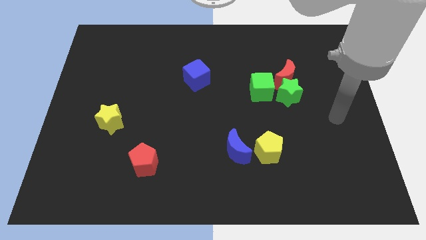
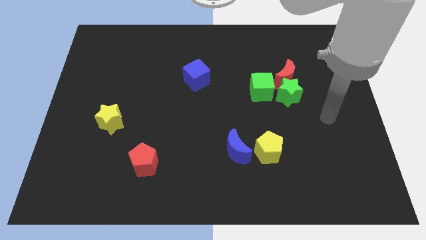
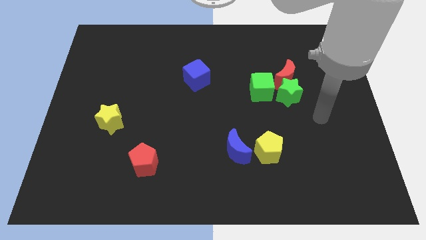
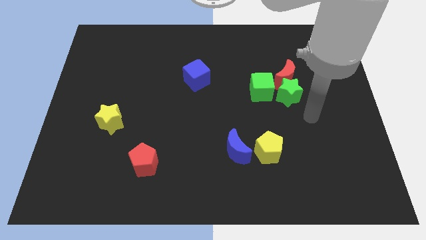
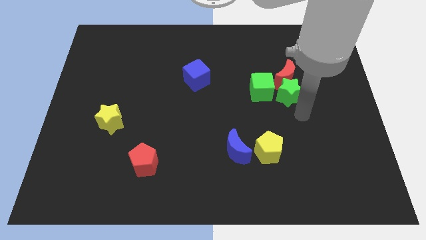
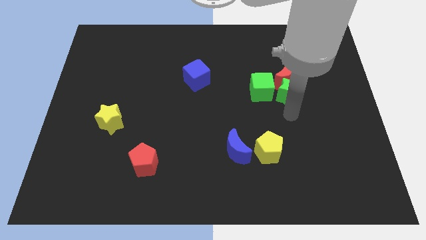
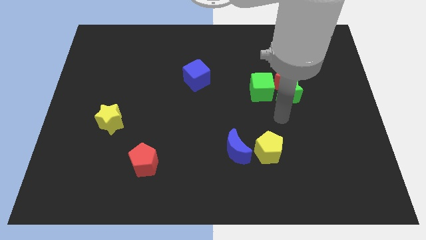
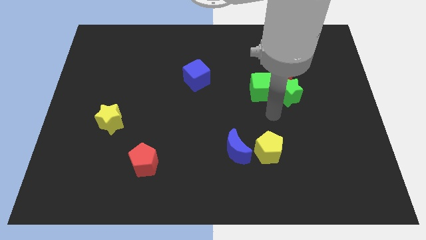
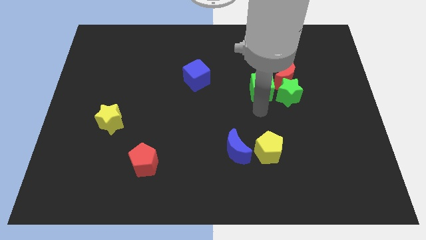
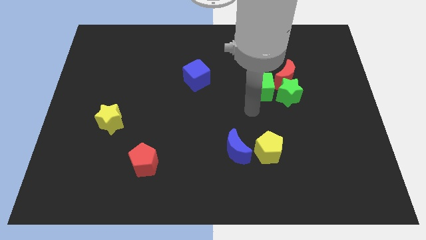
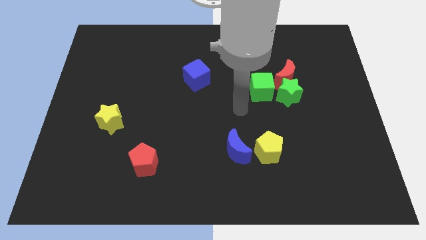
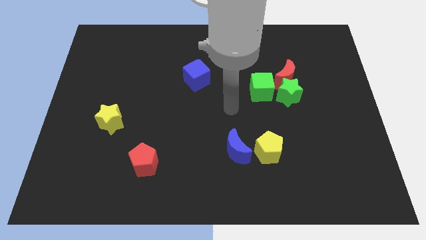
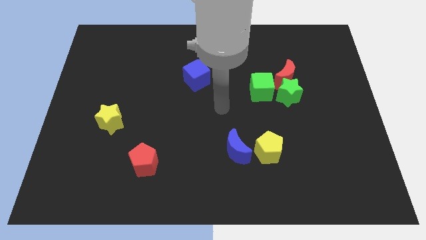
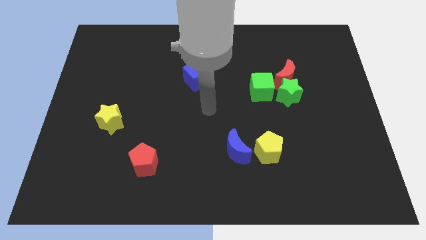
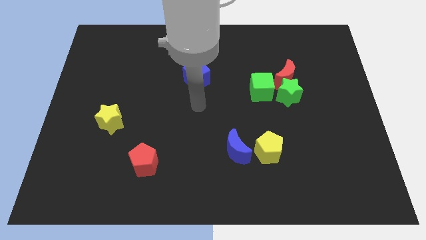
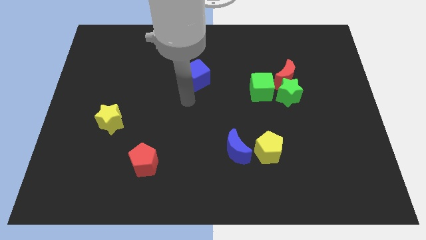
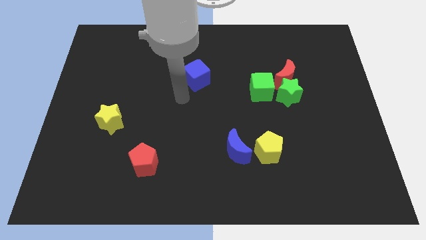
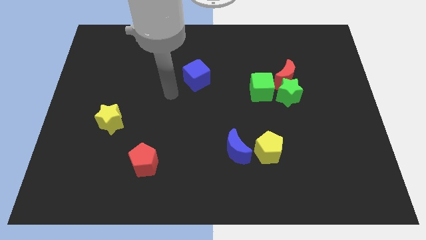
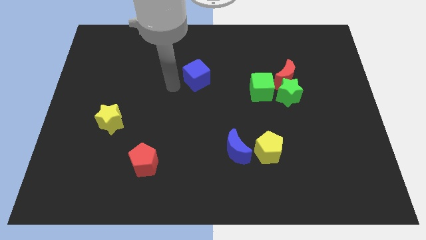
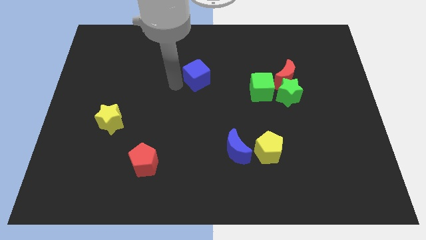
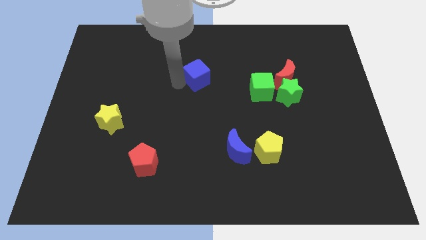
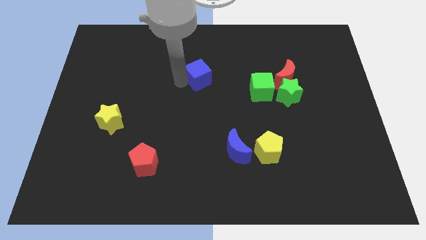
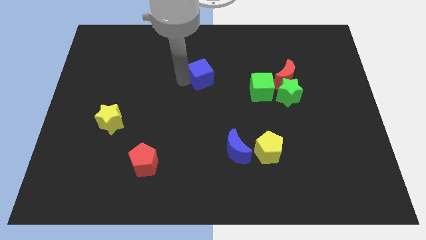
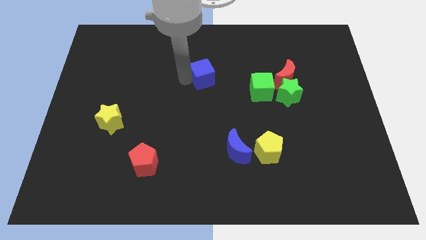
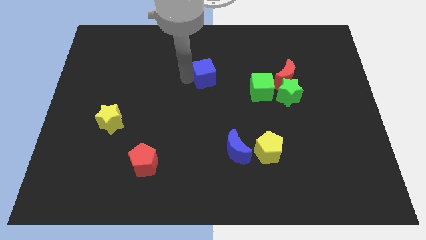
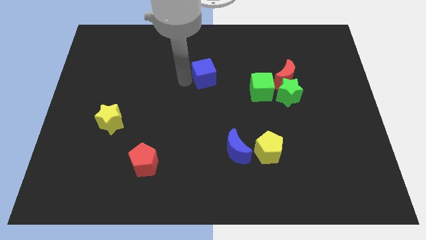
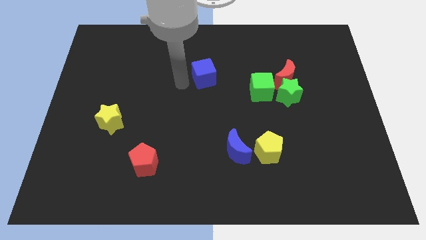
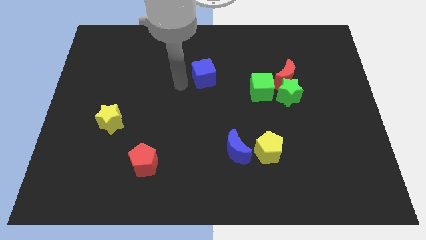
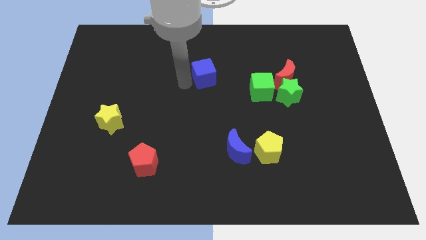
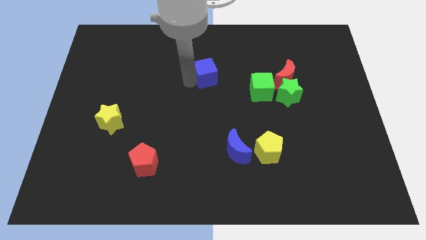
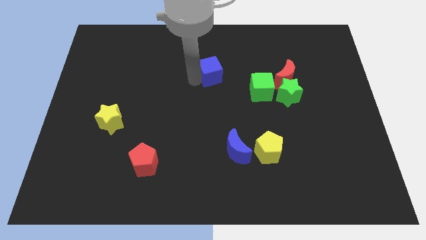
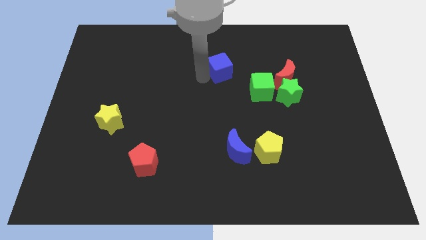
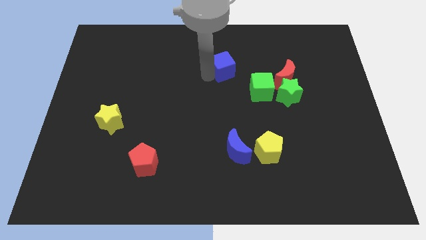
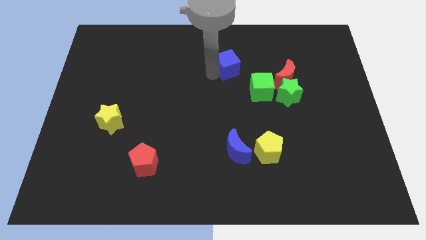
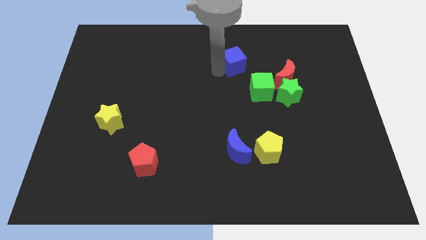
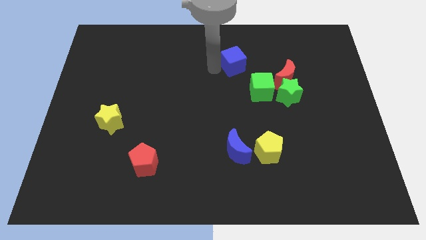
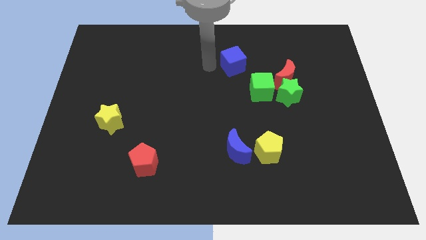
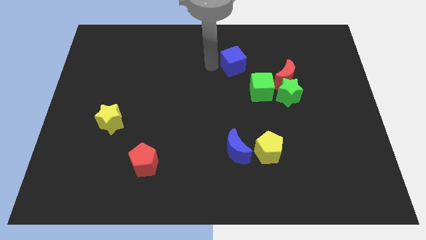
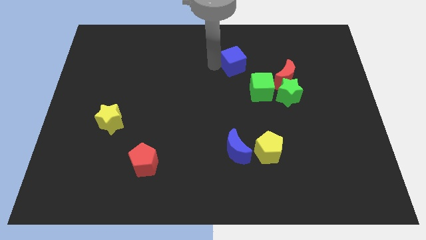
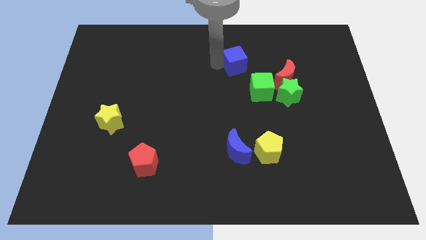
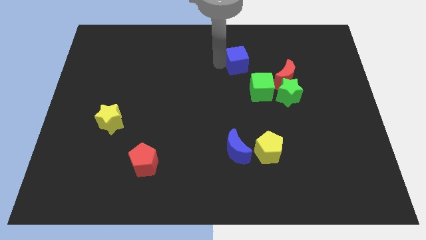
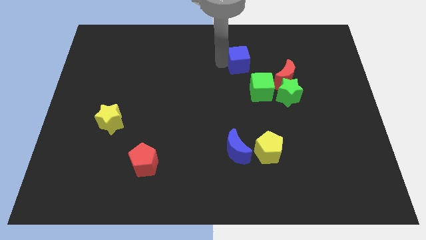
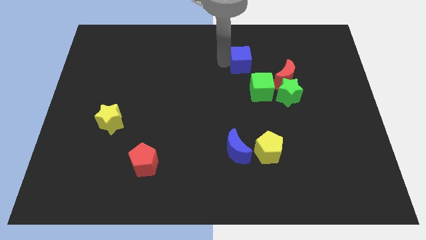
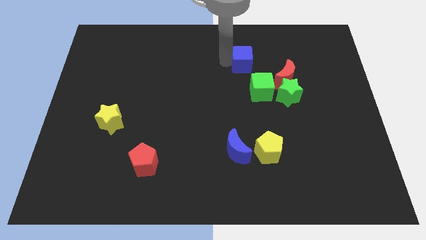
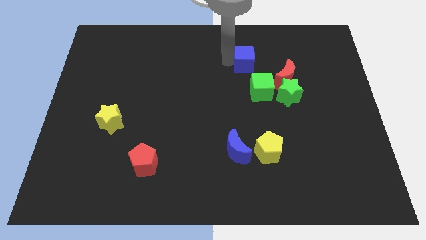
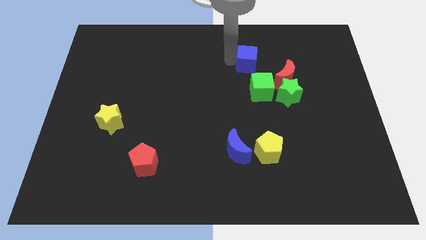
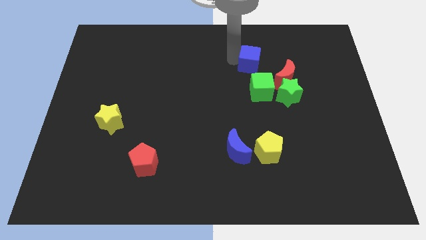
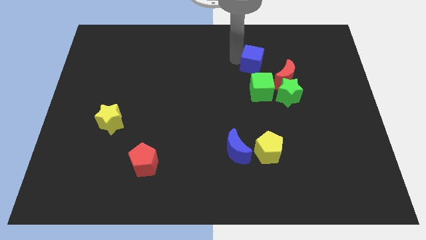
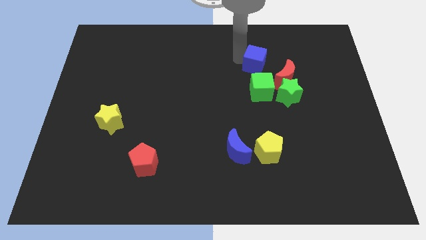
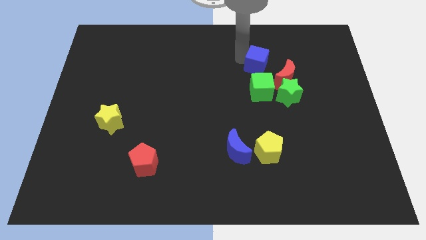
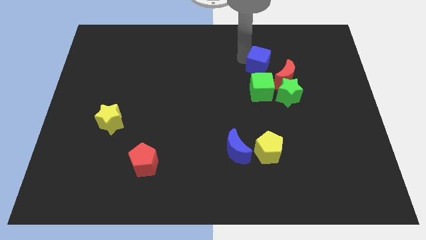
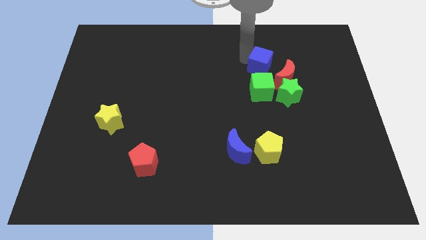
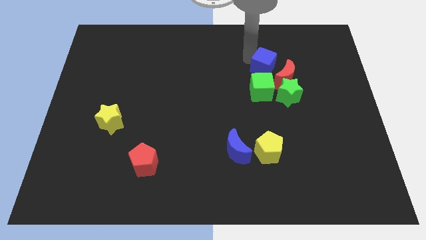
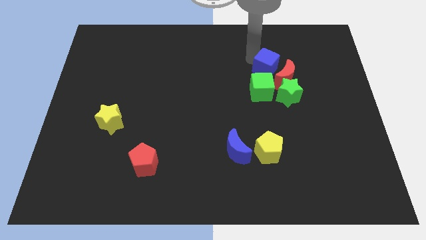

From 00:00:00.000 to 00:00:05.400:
put the blue cube towards the red moon

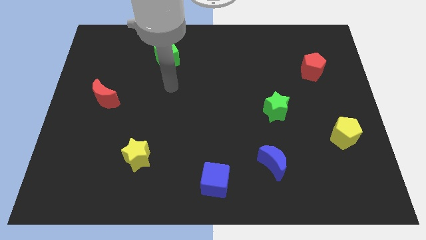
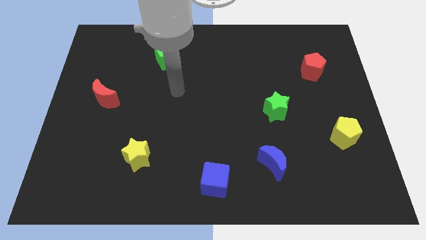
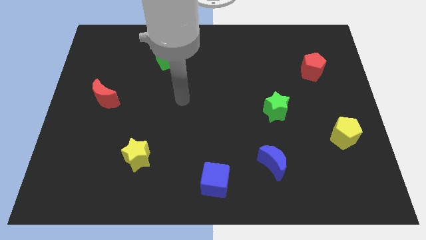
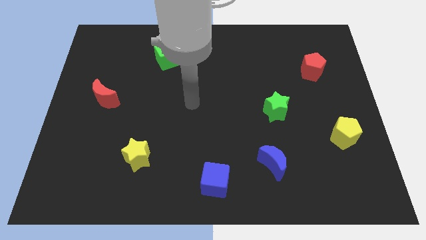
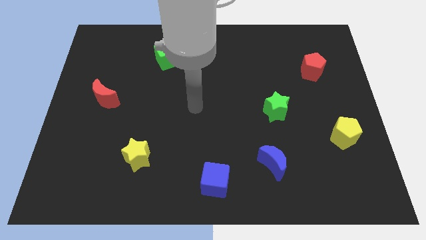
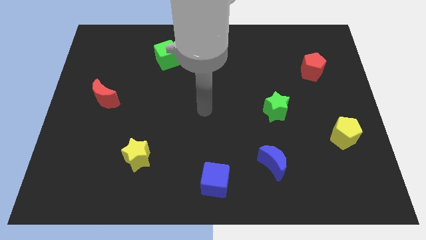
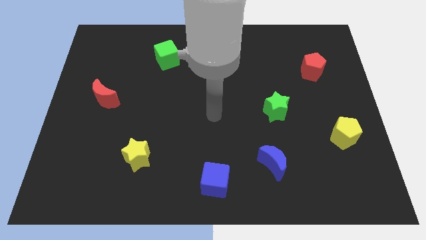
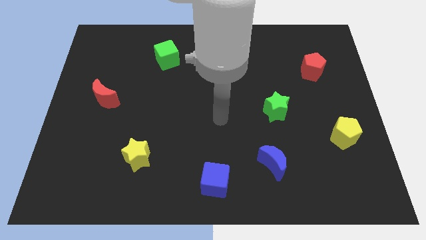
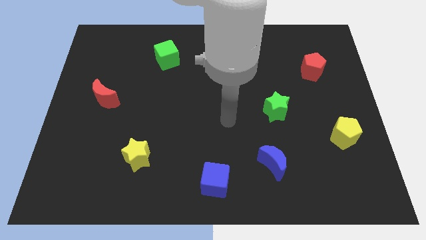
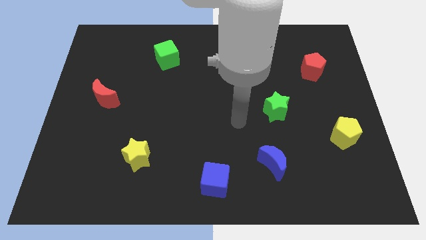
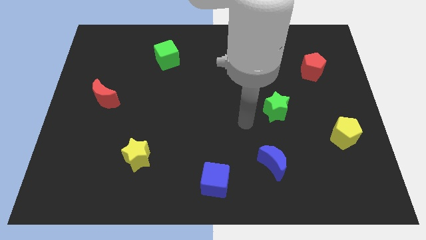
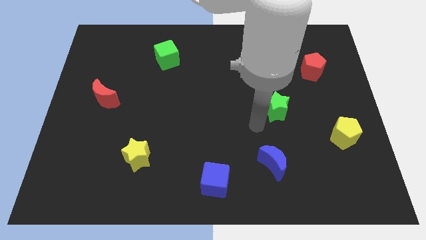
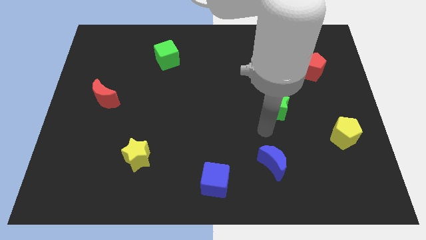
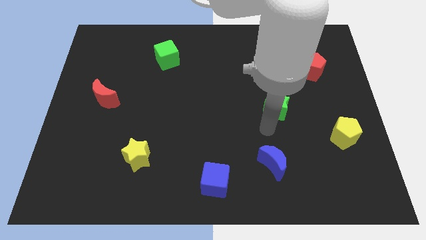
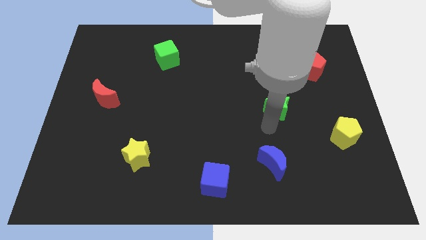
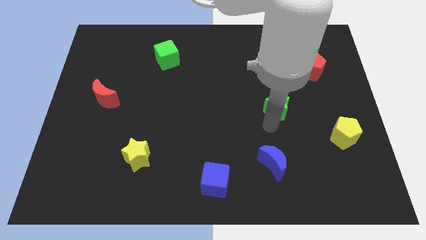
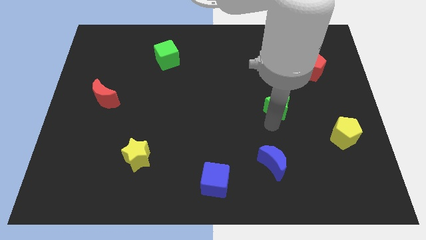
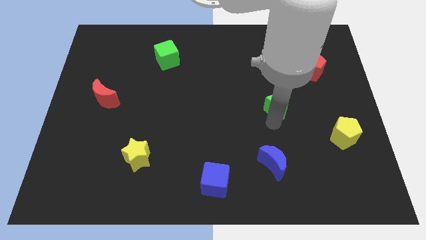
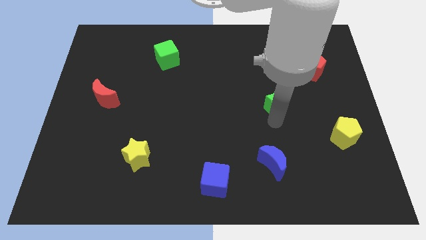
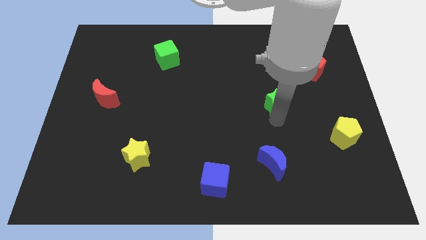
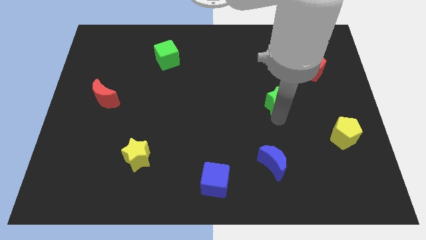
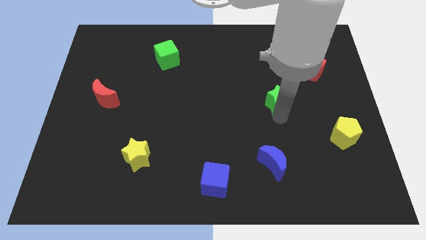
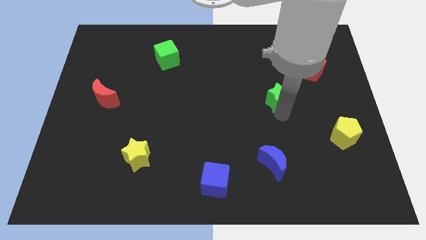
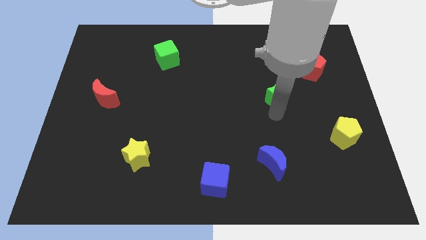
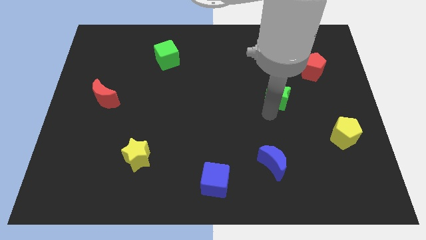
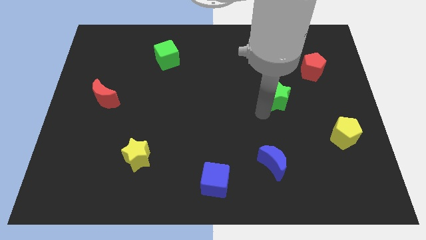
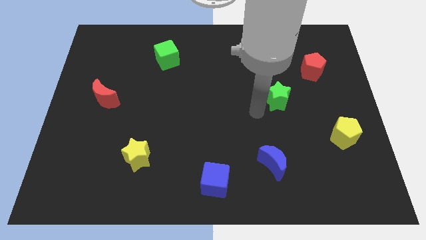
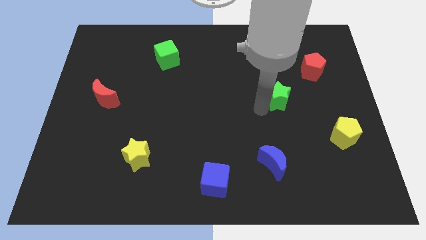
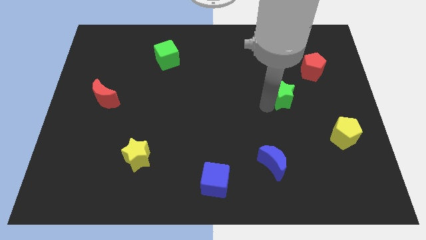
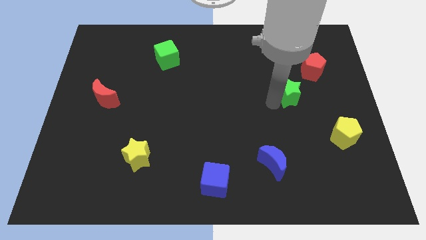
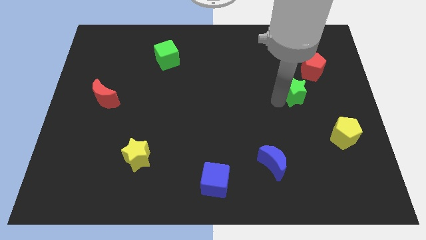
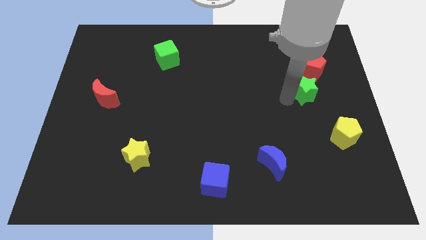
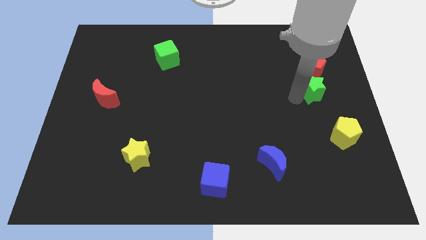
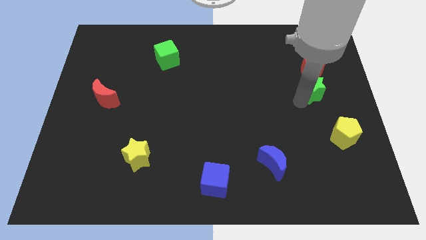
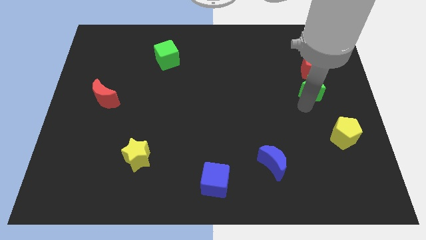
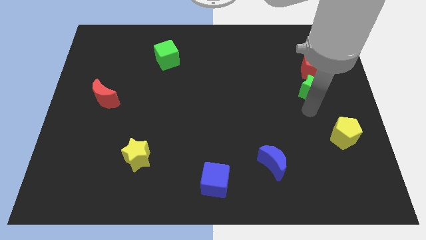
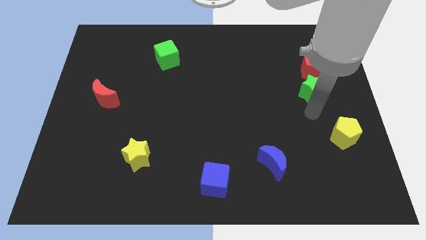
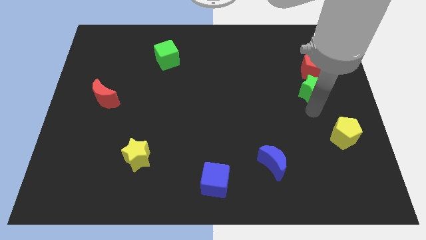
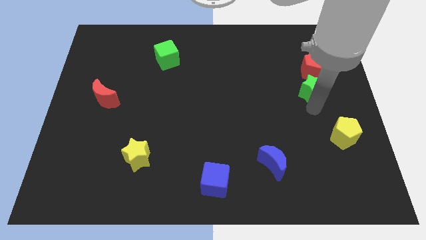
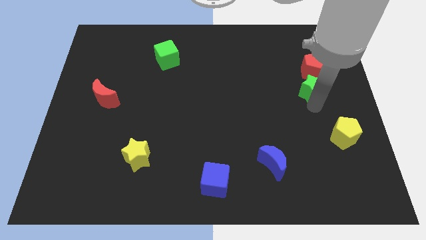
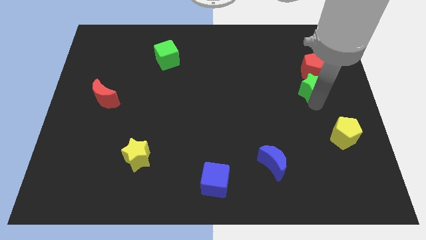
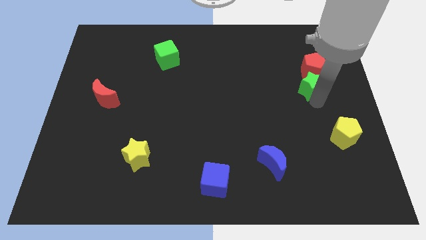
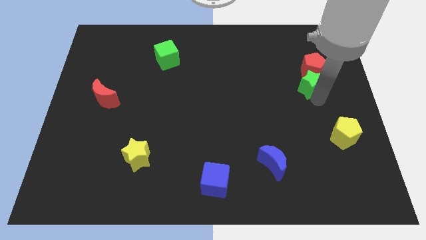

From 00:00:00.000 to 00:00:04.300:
push the green star close to the red pentagon
